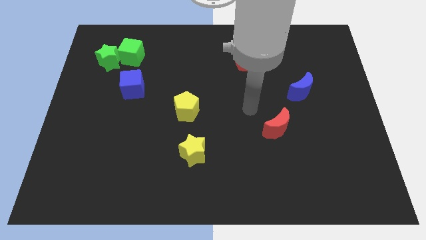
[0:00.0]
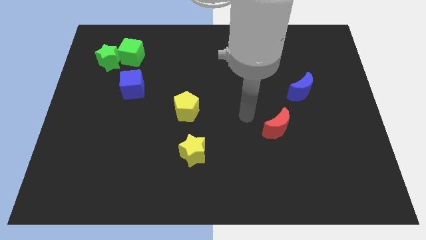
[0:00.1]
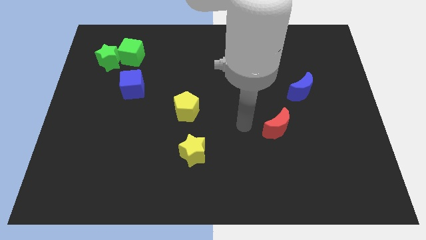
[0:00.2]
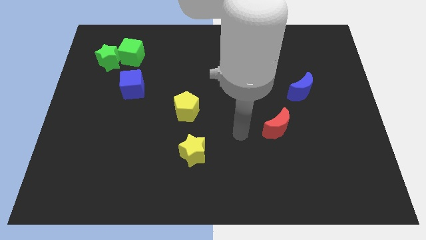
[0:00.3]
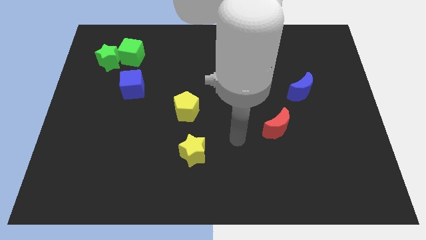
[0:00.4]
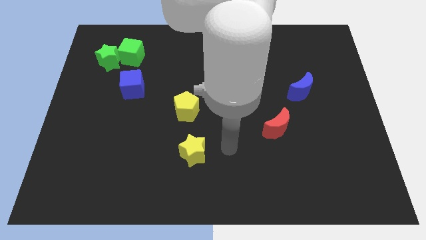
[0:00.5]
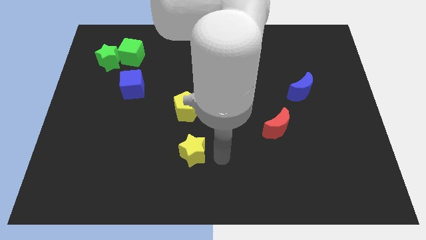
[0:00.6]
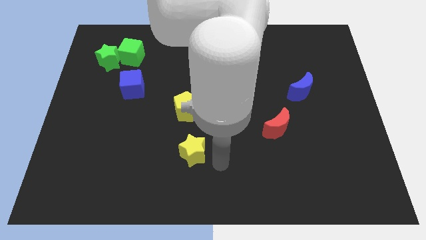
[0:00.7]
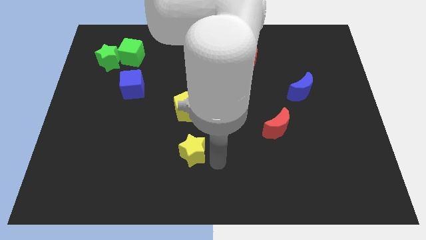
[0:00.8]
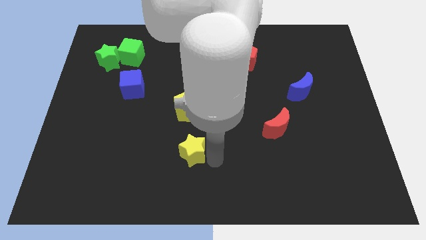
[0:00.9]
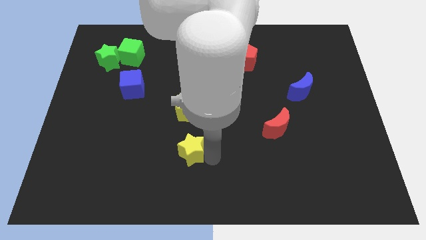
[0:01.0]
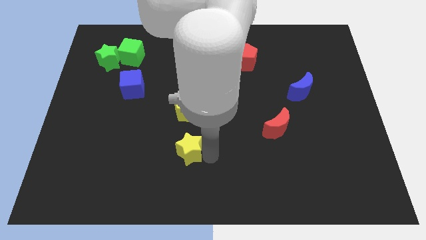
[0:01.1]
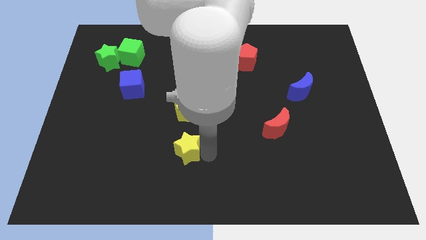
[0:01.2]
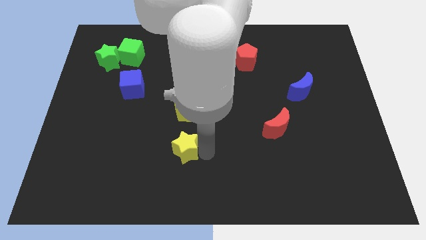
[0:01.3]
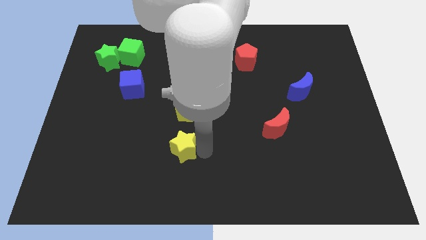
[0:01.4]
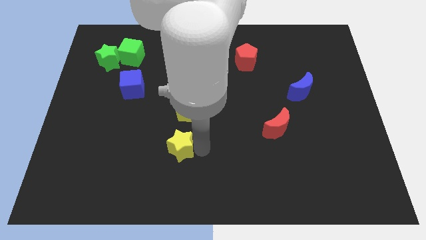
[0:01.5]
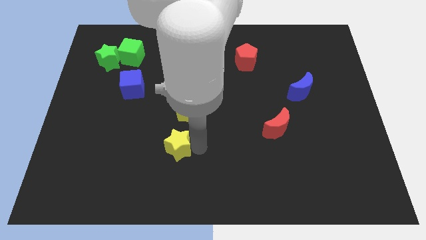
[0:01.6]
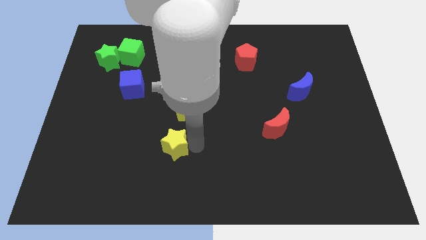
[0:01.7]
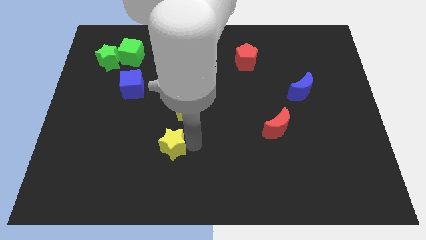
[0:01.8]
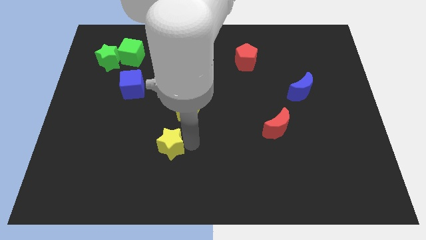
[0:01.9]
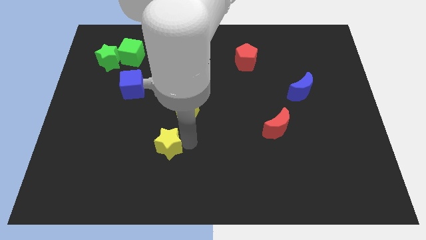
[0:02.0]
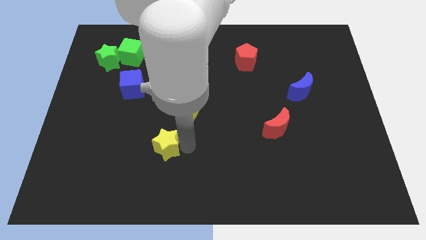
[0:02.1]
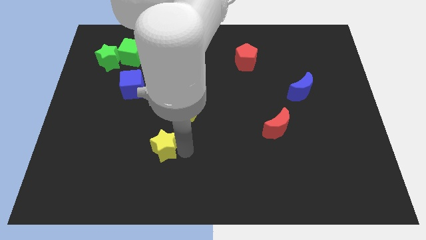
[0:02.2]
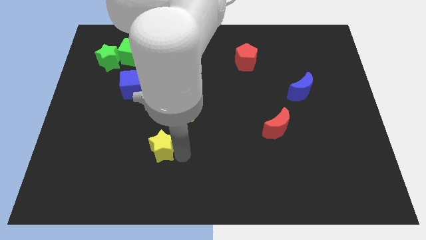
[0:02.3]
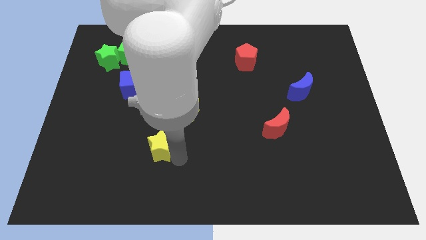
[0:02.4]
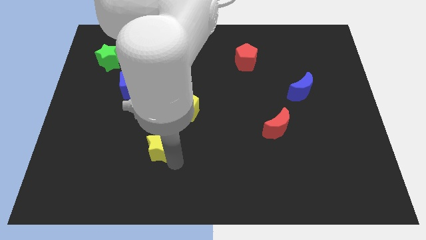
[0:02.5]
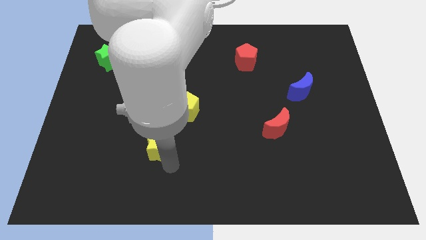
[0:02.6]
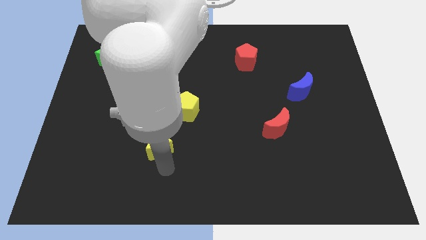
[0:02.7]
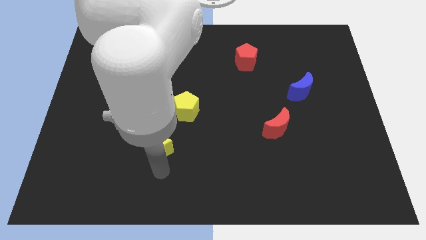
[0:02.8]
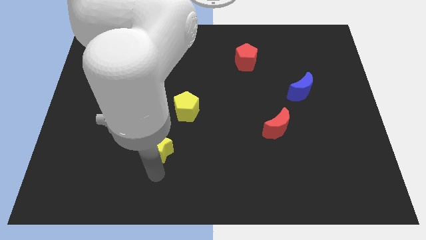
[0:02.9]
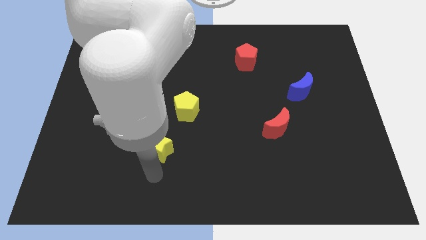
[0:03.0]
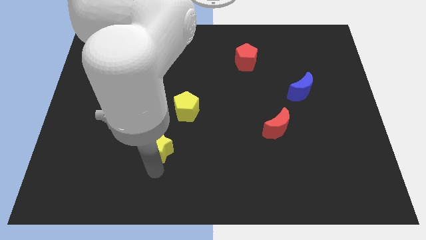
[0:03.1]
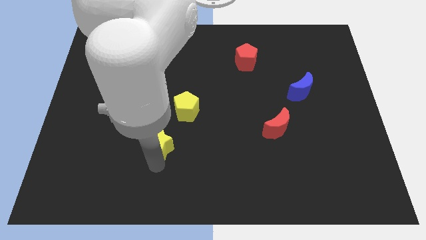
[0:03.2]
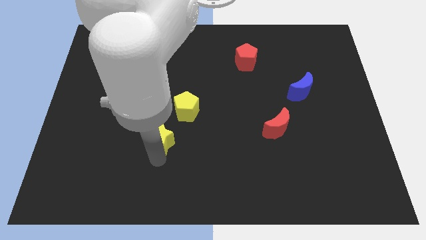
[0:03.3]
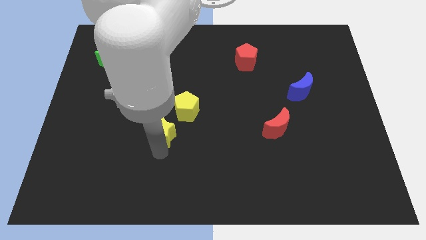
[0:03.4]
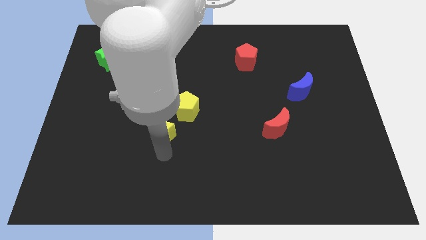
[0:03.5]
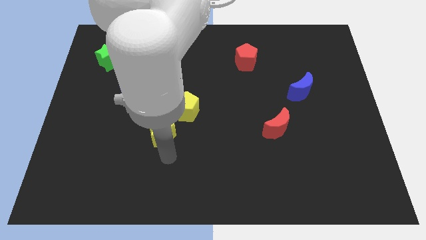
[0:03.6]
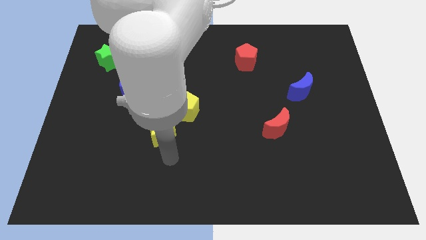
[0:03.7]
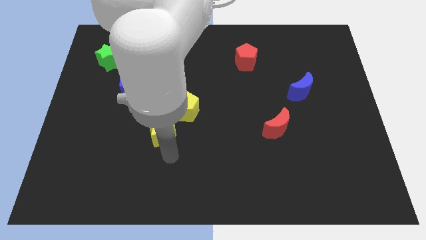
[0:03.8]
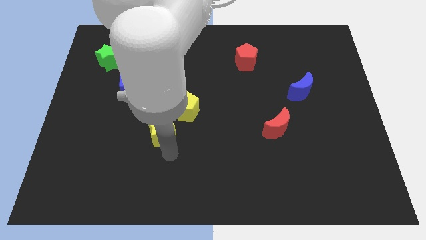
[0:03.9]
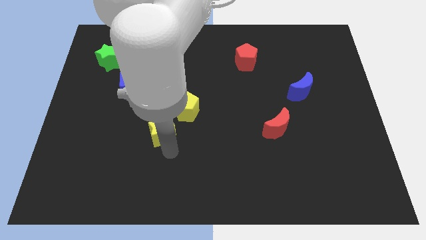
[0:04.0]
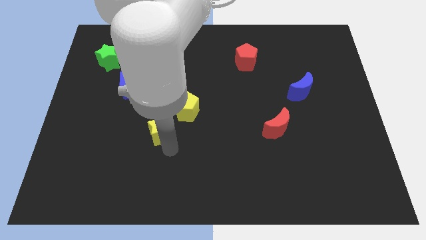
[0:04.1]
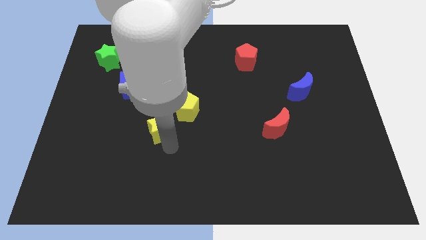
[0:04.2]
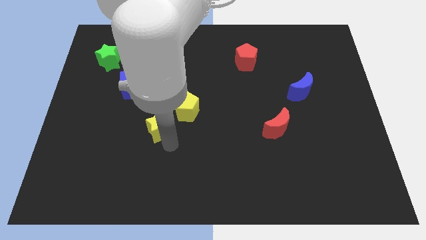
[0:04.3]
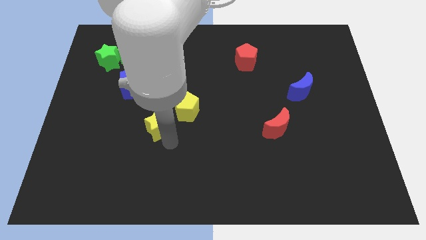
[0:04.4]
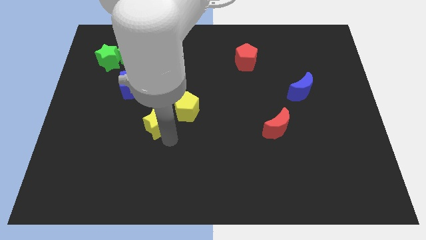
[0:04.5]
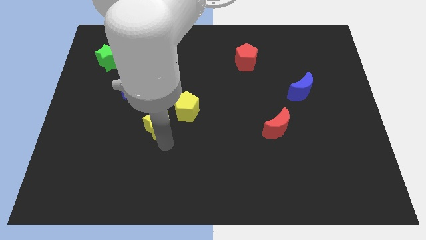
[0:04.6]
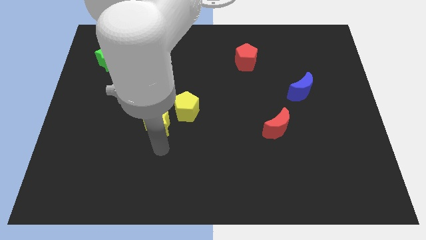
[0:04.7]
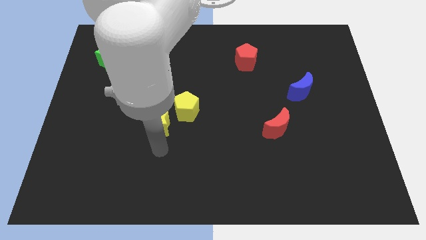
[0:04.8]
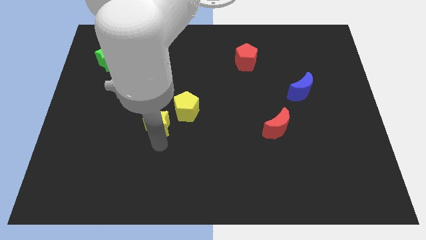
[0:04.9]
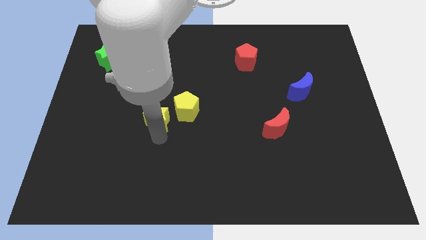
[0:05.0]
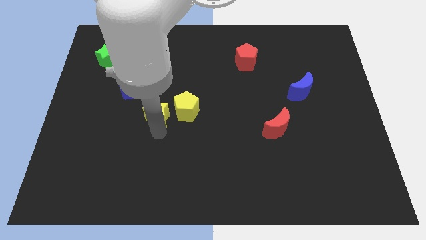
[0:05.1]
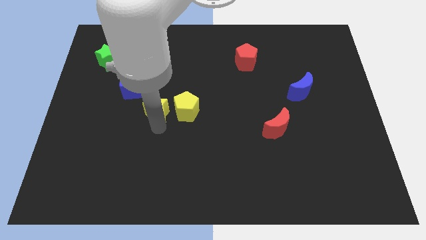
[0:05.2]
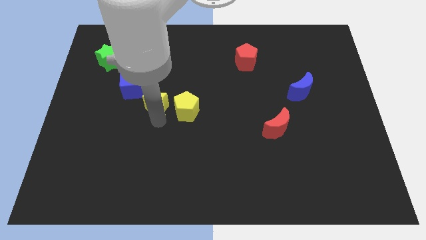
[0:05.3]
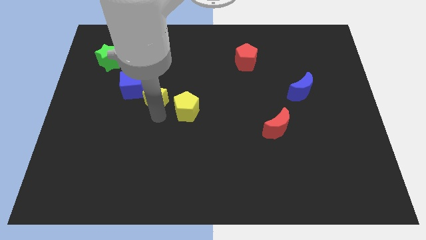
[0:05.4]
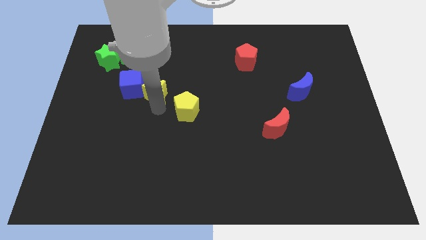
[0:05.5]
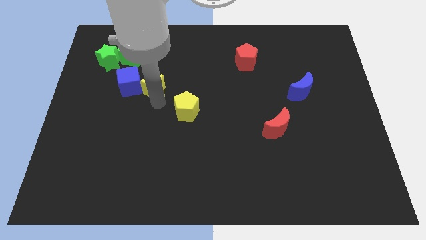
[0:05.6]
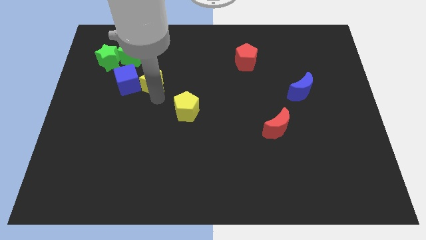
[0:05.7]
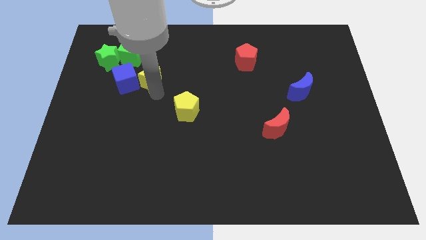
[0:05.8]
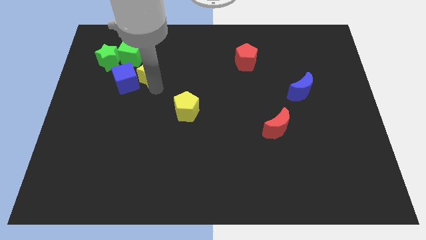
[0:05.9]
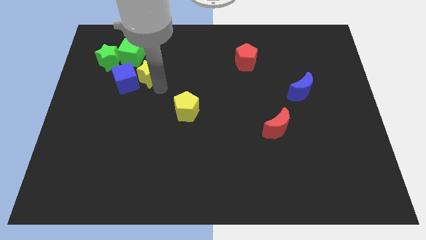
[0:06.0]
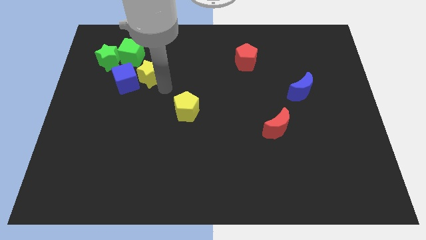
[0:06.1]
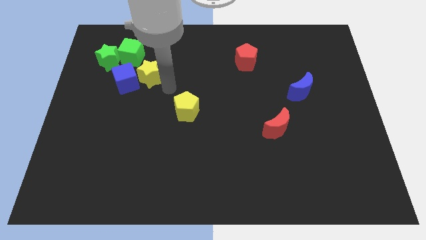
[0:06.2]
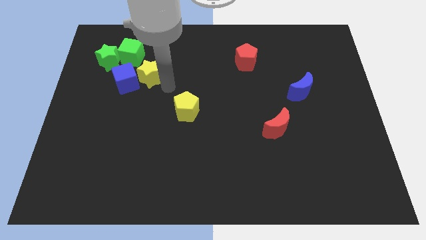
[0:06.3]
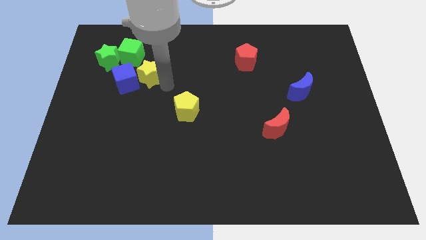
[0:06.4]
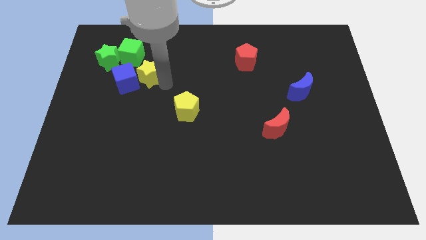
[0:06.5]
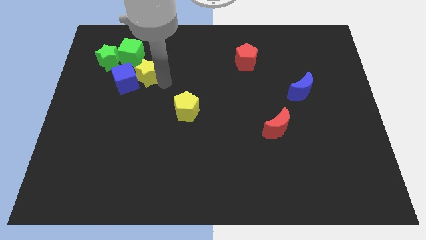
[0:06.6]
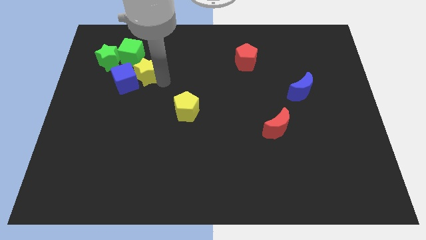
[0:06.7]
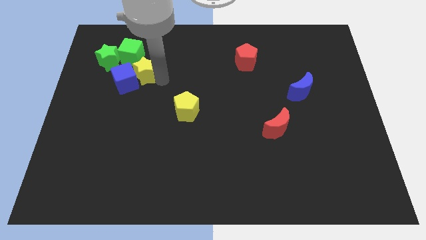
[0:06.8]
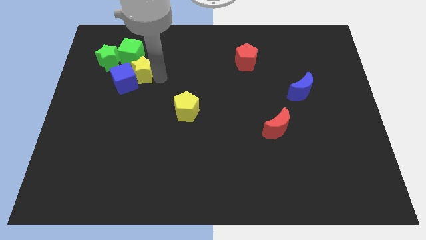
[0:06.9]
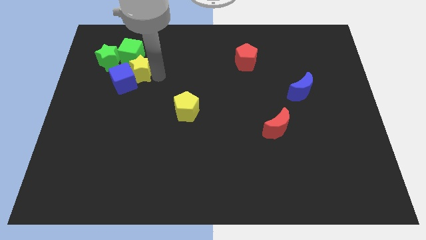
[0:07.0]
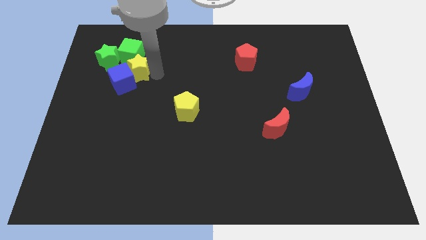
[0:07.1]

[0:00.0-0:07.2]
put the yellow star close to the green cube
